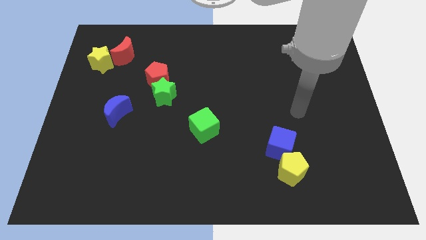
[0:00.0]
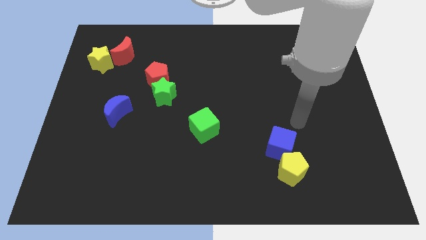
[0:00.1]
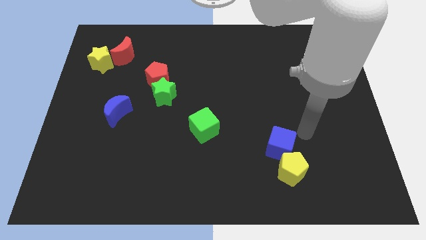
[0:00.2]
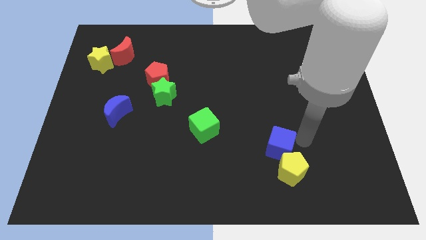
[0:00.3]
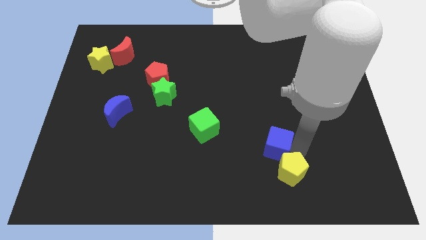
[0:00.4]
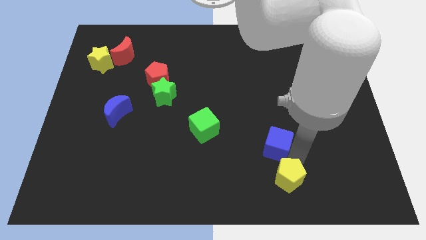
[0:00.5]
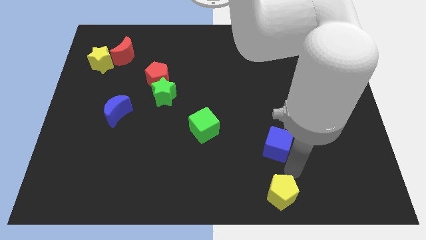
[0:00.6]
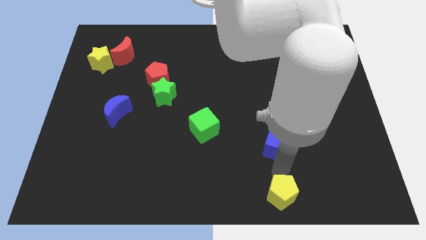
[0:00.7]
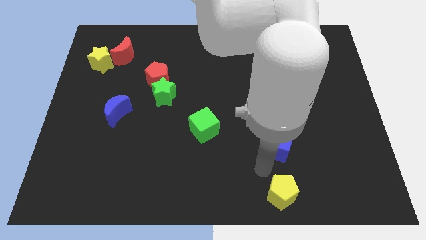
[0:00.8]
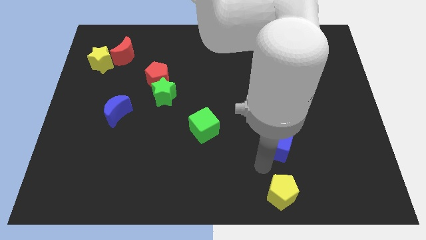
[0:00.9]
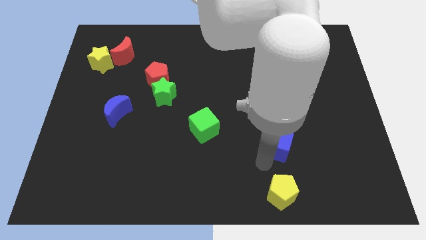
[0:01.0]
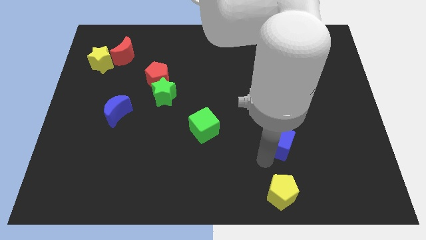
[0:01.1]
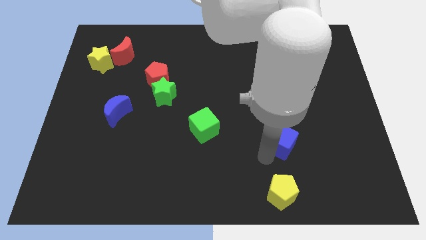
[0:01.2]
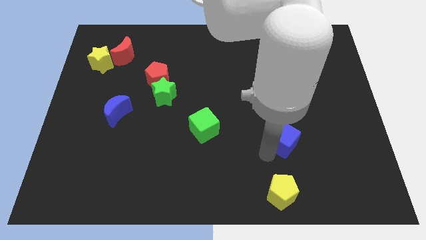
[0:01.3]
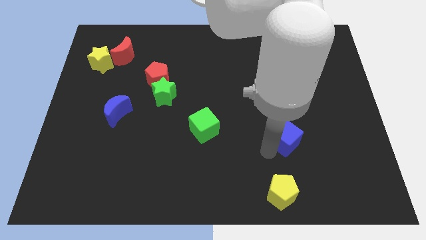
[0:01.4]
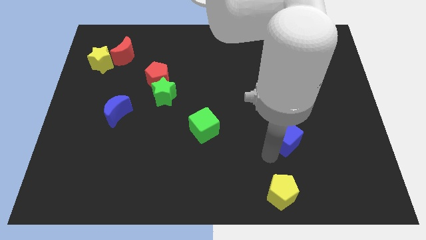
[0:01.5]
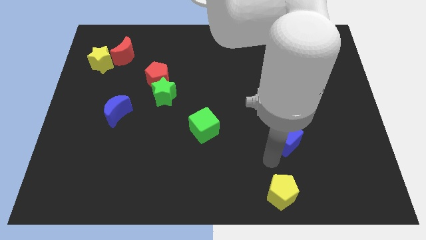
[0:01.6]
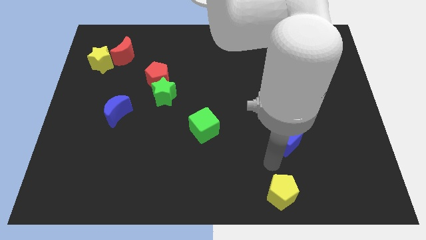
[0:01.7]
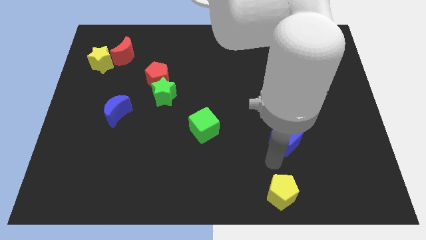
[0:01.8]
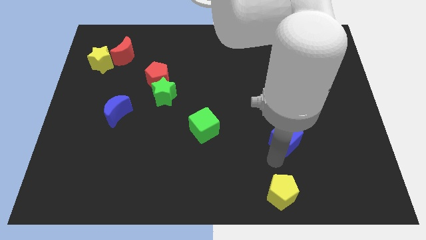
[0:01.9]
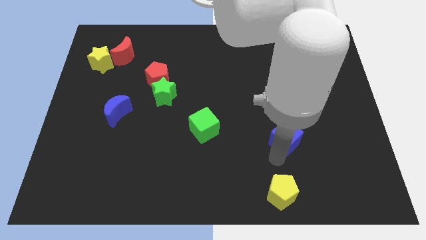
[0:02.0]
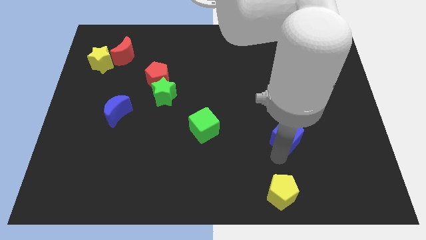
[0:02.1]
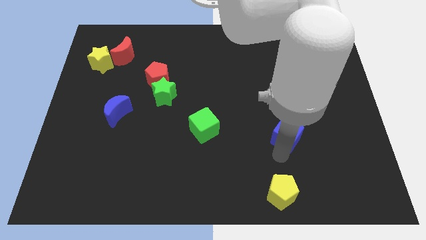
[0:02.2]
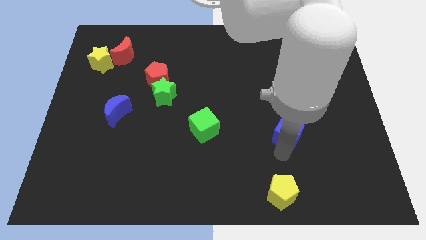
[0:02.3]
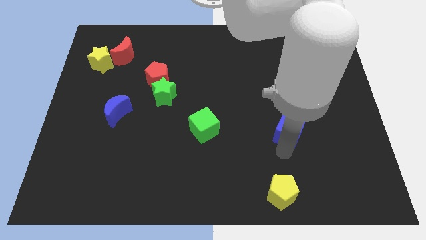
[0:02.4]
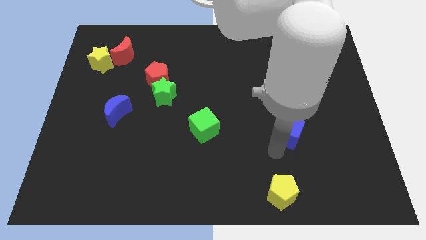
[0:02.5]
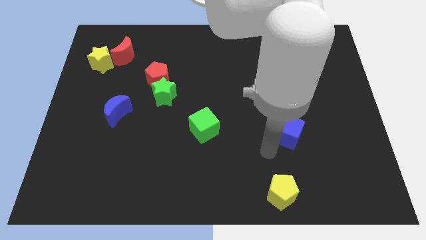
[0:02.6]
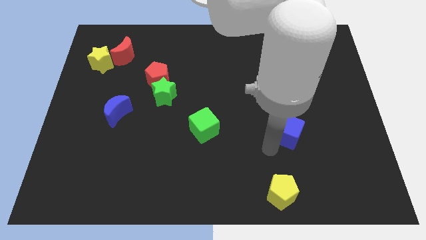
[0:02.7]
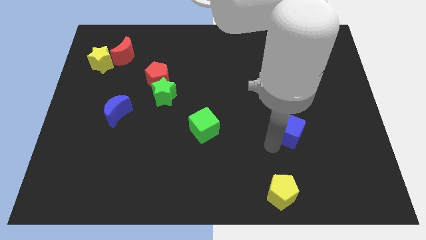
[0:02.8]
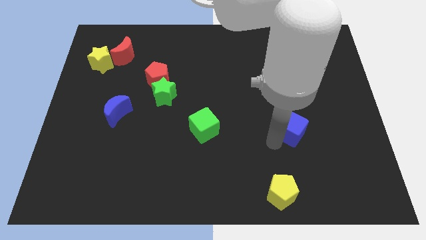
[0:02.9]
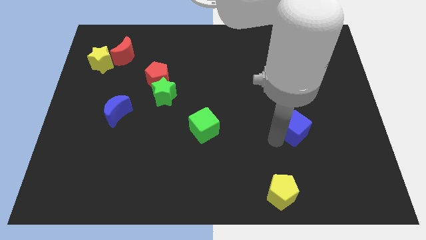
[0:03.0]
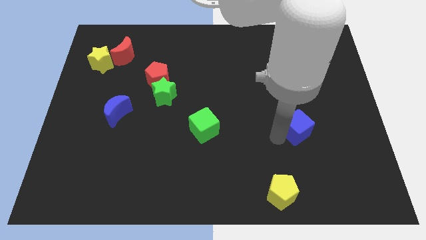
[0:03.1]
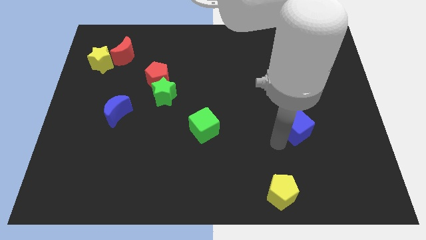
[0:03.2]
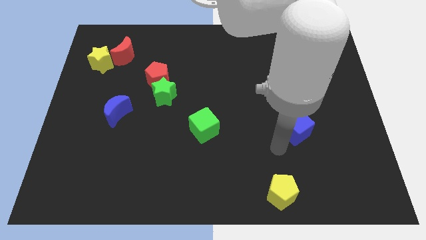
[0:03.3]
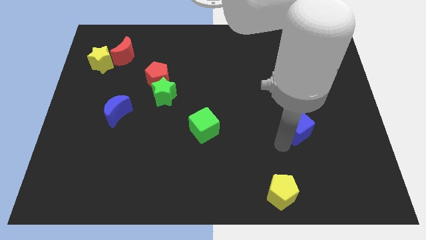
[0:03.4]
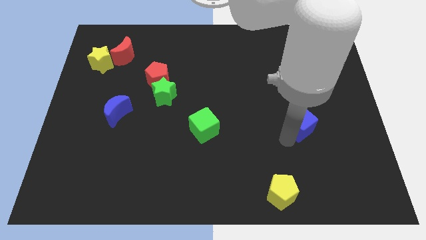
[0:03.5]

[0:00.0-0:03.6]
push the blue cube diagonally upwards and to the right somewhat

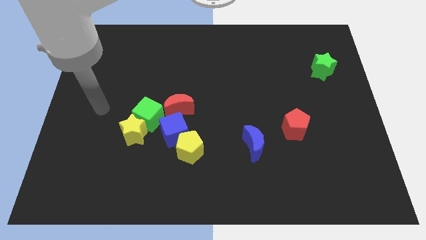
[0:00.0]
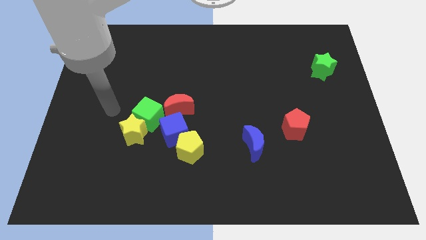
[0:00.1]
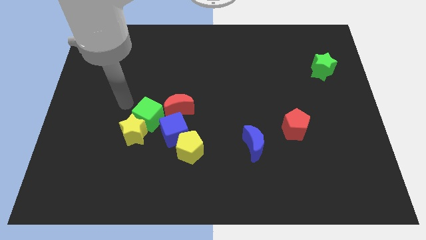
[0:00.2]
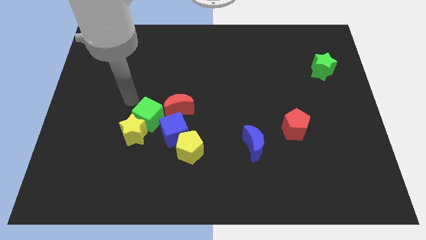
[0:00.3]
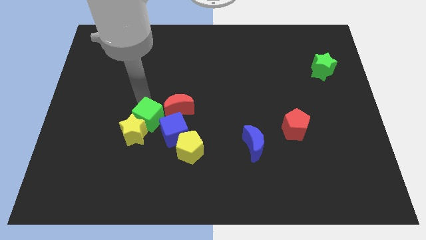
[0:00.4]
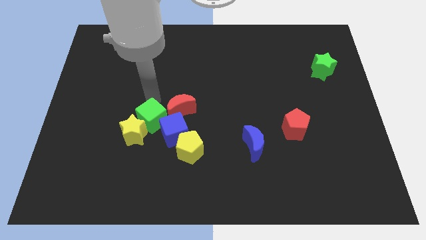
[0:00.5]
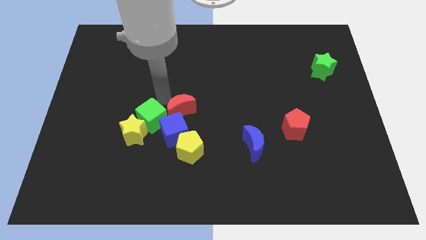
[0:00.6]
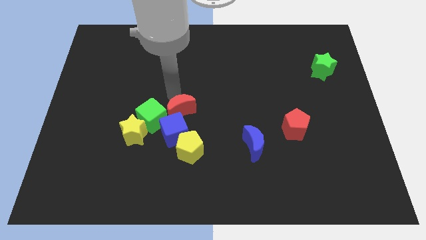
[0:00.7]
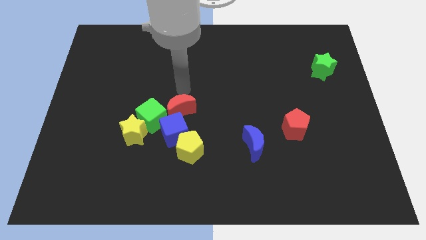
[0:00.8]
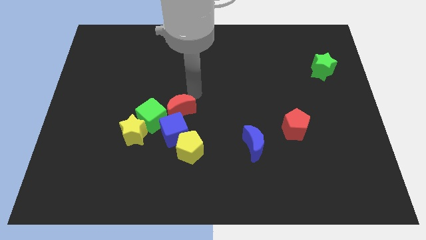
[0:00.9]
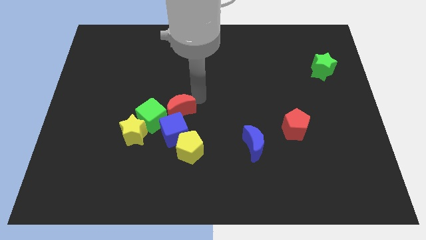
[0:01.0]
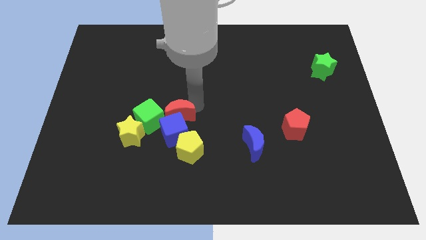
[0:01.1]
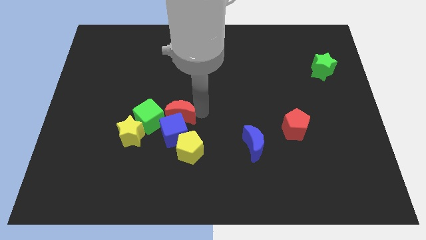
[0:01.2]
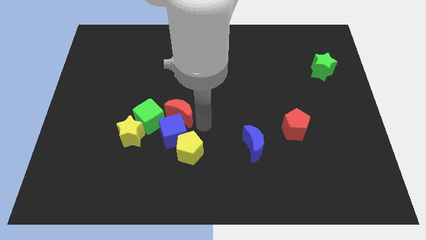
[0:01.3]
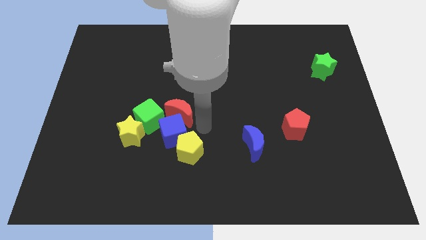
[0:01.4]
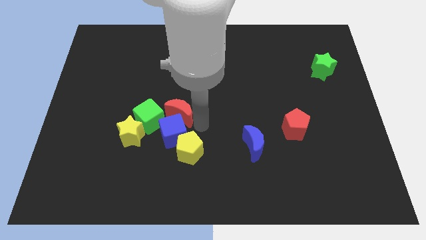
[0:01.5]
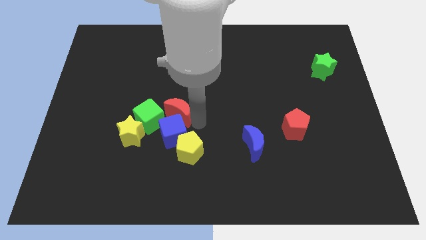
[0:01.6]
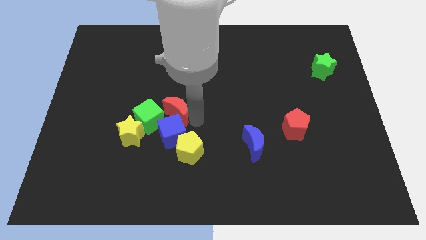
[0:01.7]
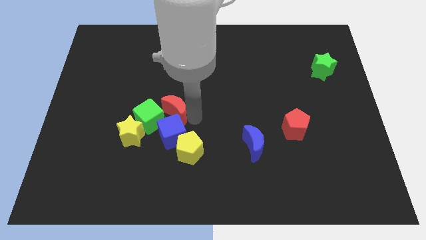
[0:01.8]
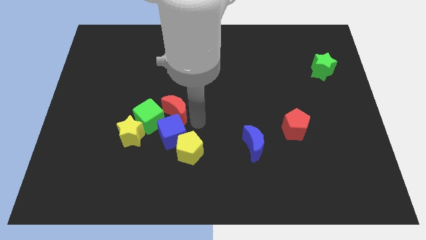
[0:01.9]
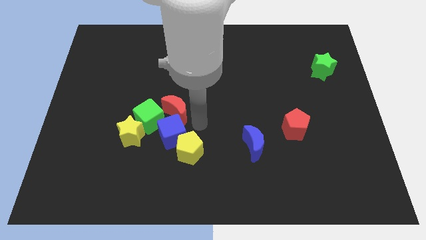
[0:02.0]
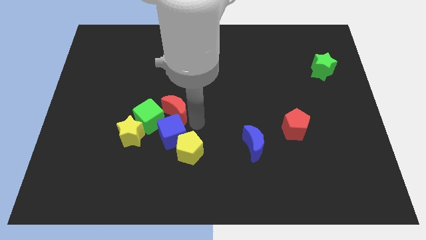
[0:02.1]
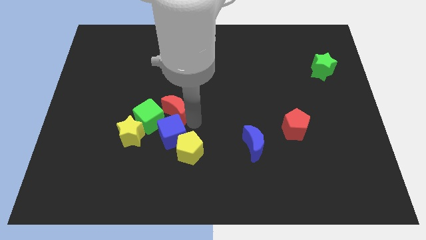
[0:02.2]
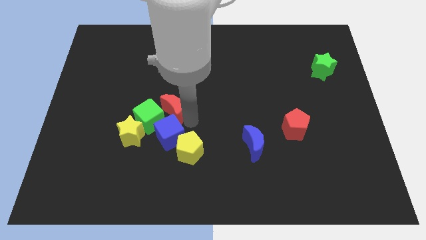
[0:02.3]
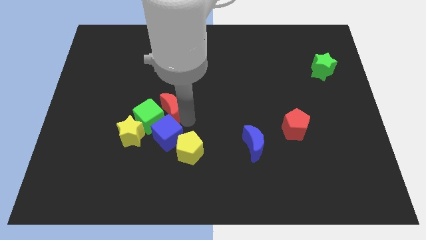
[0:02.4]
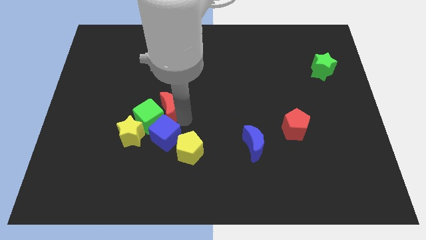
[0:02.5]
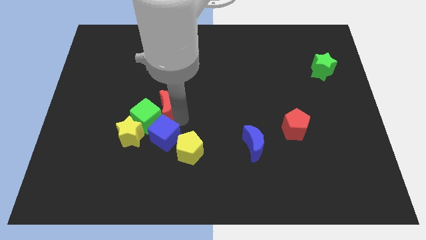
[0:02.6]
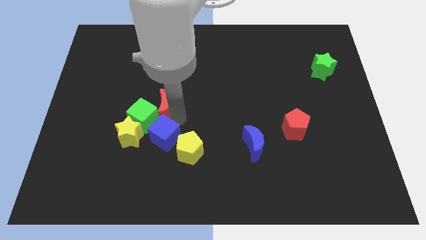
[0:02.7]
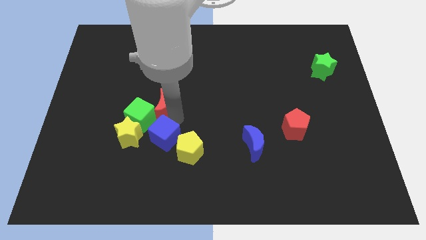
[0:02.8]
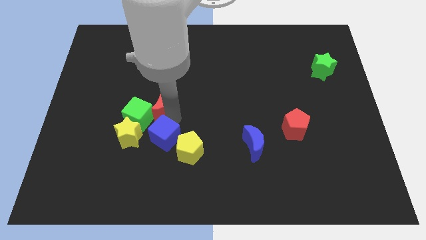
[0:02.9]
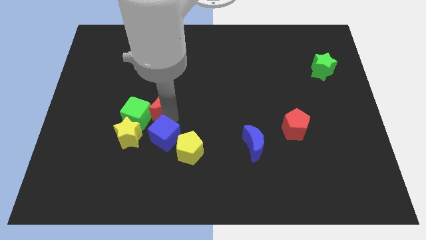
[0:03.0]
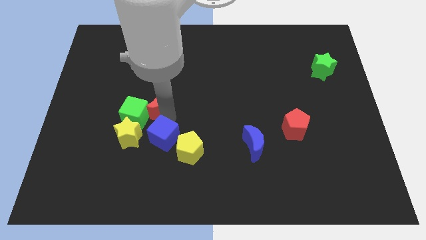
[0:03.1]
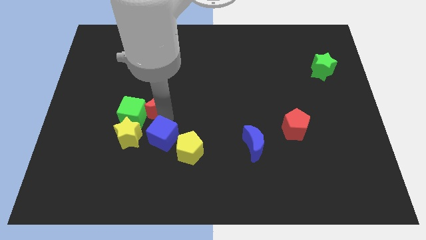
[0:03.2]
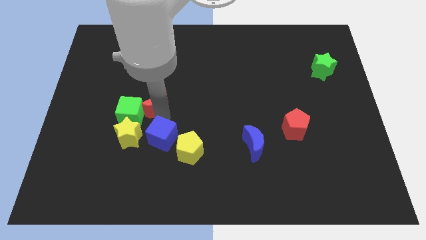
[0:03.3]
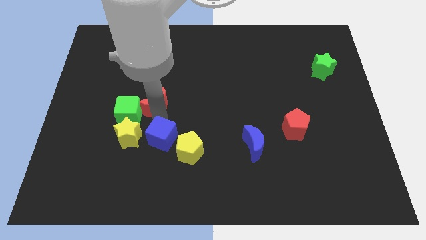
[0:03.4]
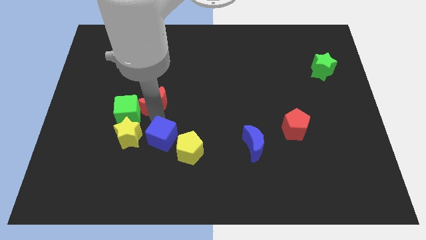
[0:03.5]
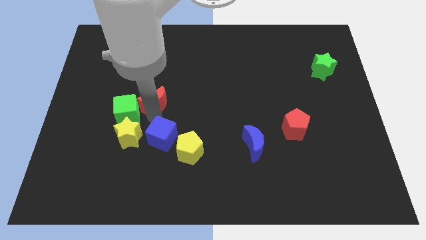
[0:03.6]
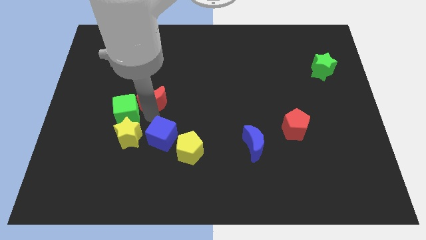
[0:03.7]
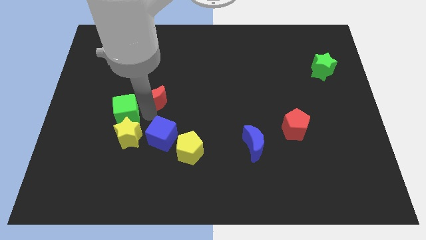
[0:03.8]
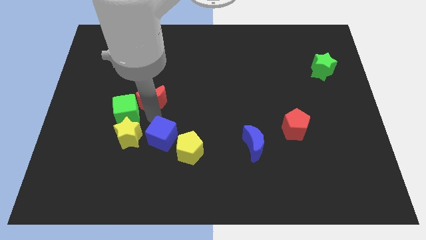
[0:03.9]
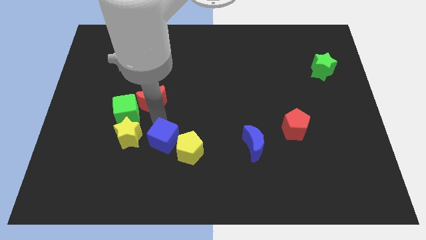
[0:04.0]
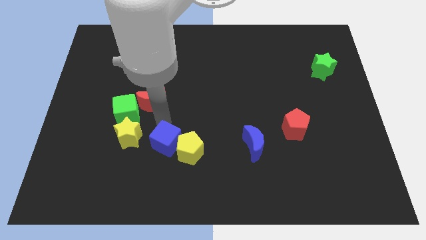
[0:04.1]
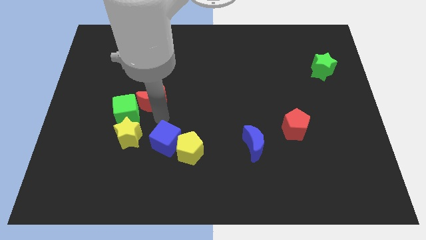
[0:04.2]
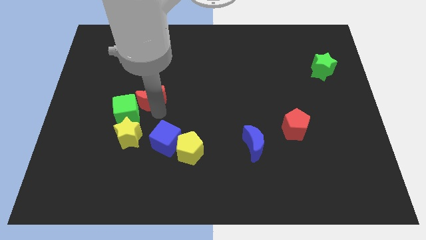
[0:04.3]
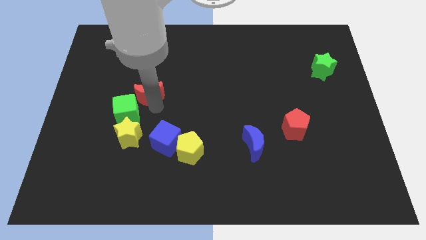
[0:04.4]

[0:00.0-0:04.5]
slide the red moon slightly up and left

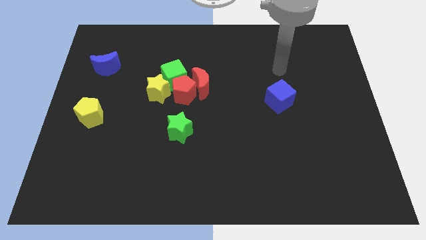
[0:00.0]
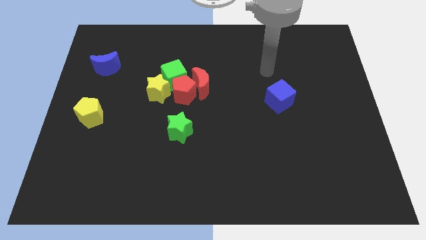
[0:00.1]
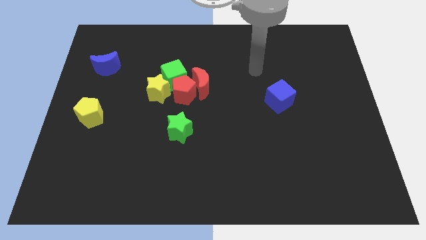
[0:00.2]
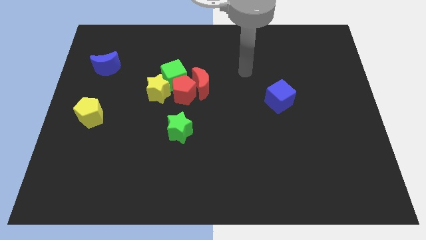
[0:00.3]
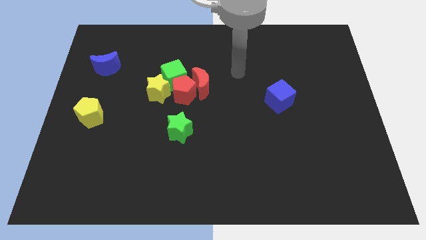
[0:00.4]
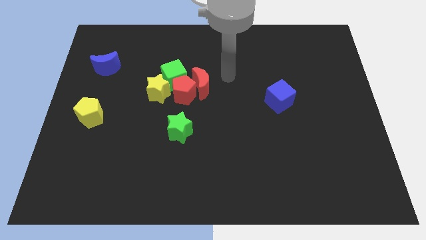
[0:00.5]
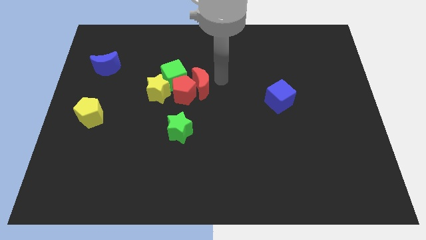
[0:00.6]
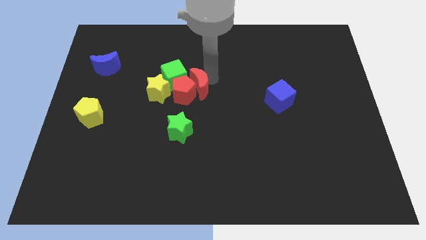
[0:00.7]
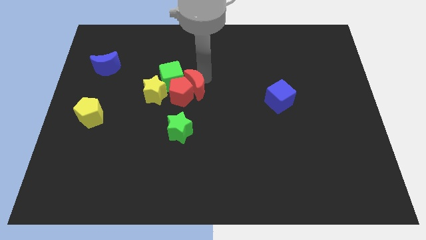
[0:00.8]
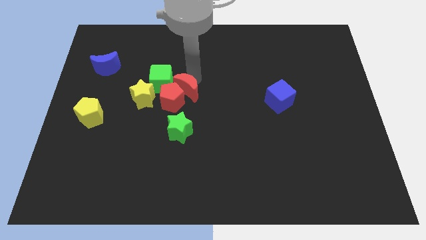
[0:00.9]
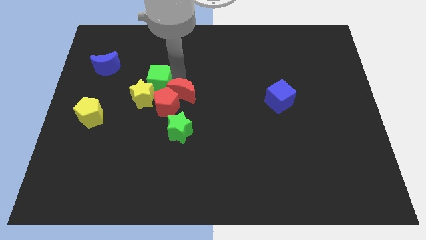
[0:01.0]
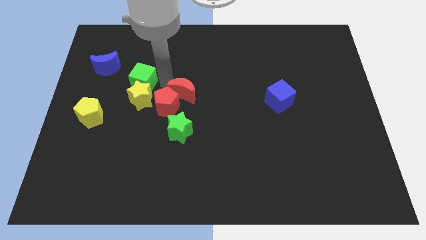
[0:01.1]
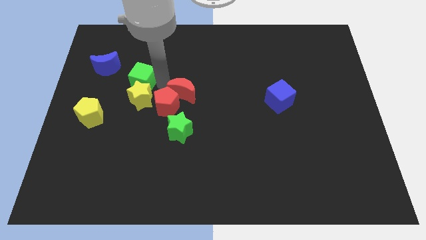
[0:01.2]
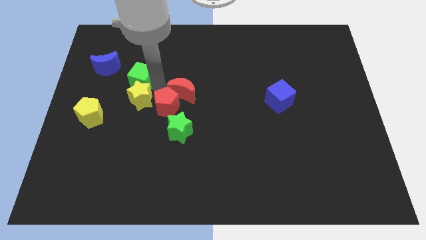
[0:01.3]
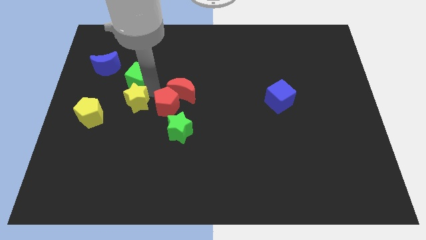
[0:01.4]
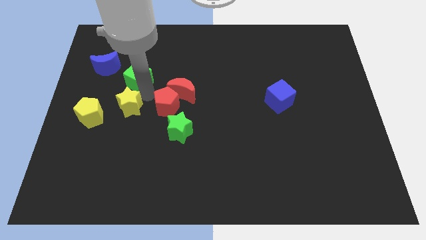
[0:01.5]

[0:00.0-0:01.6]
slightly move the yellow star down and then left
